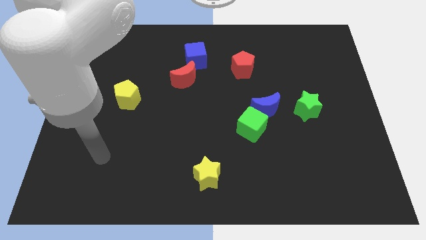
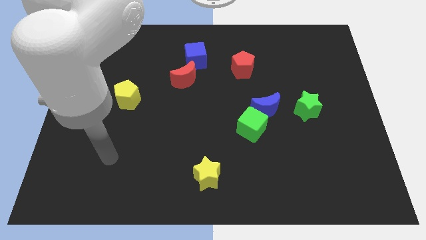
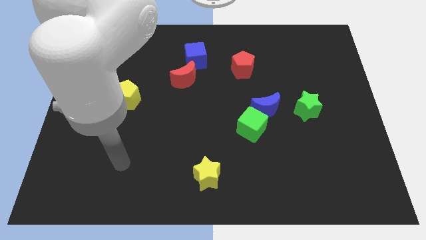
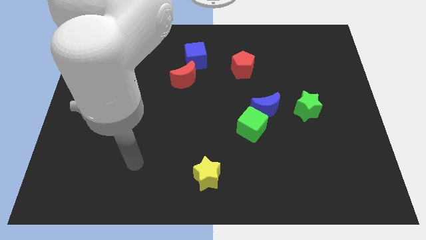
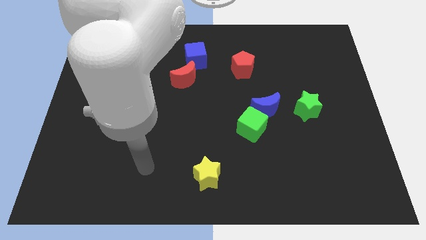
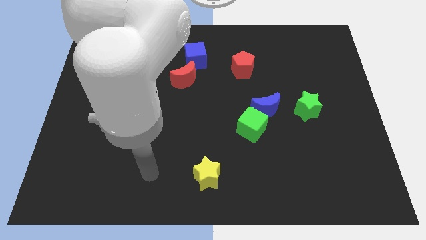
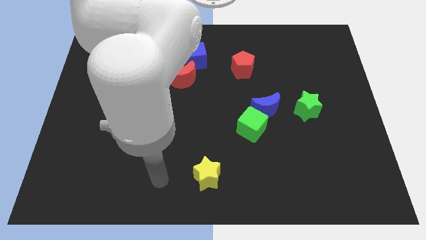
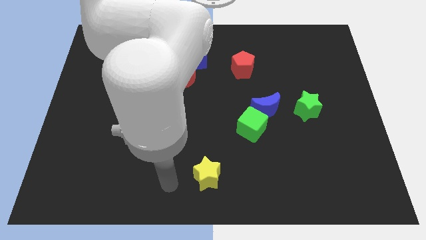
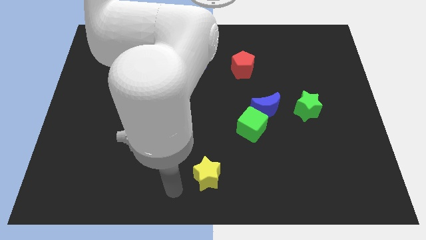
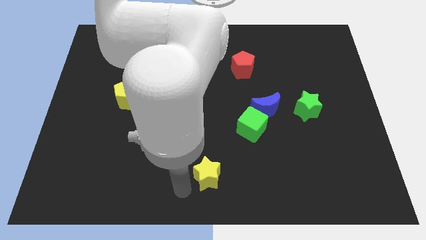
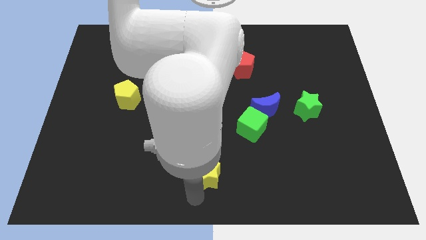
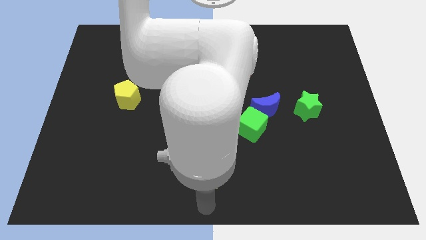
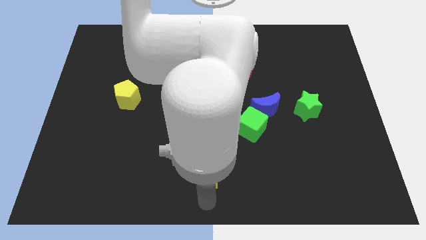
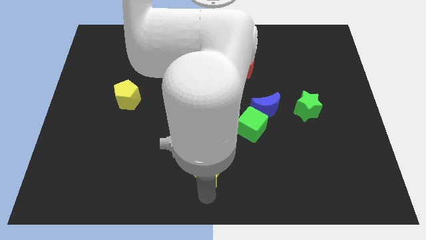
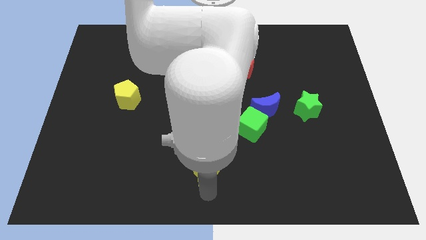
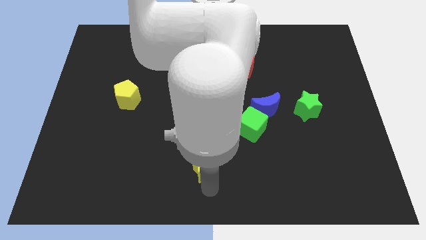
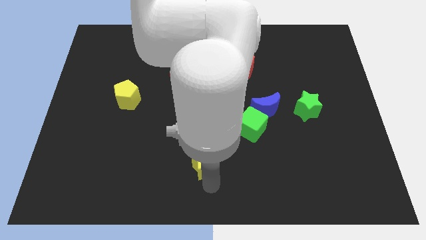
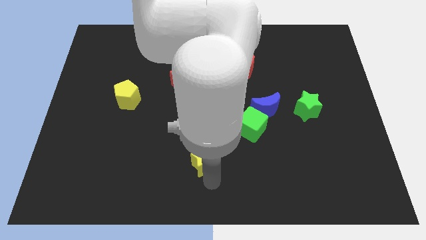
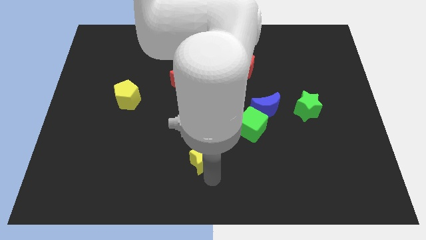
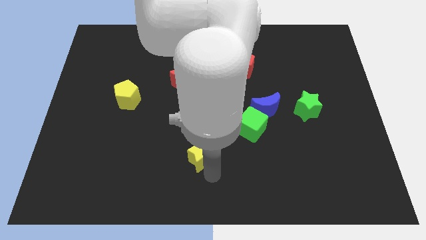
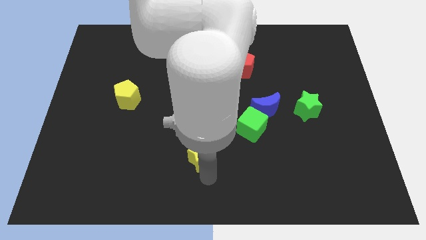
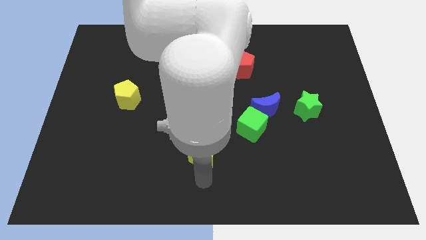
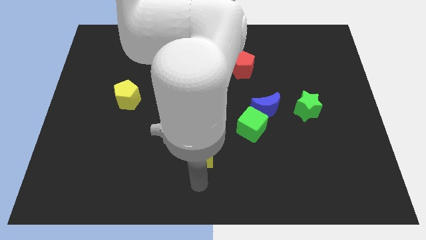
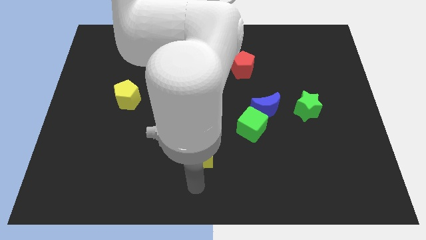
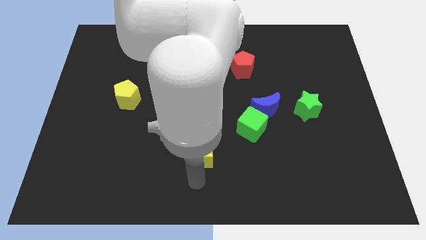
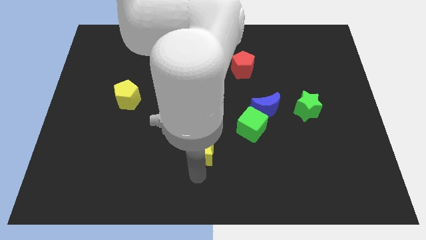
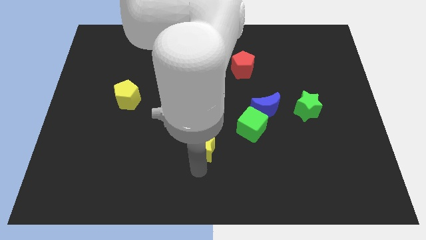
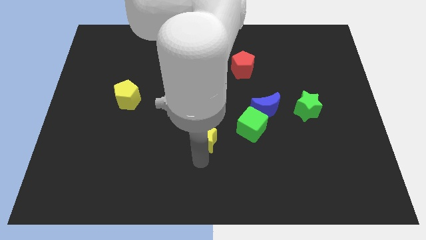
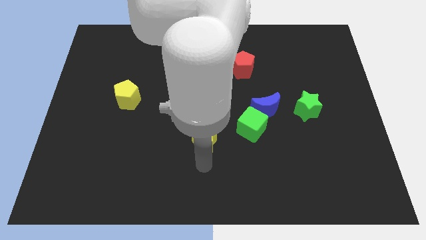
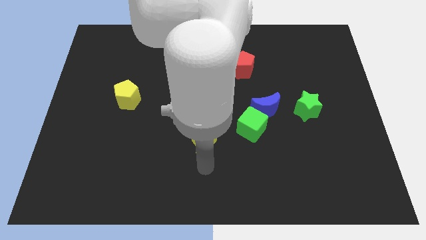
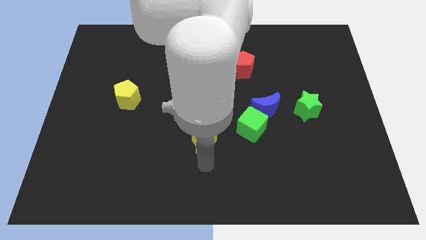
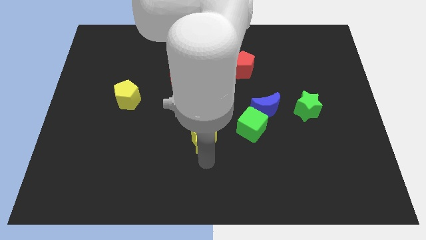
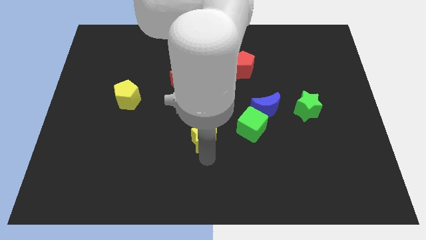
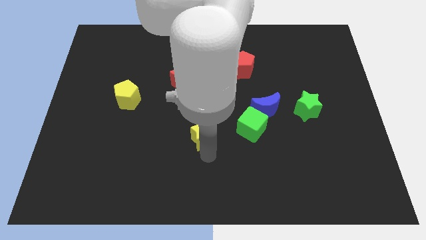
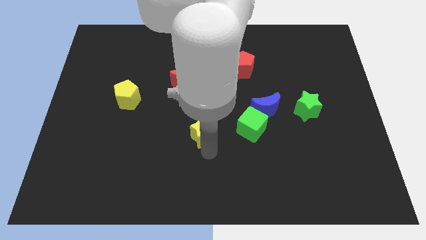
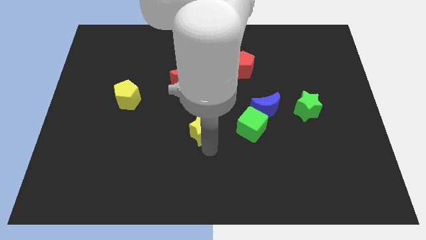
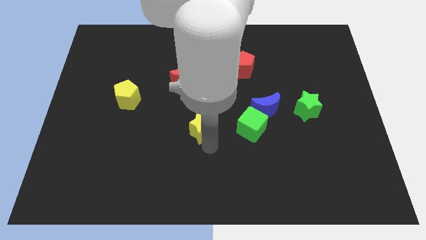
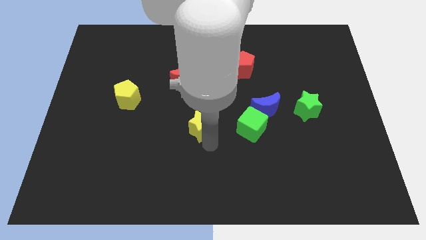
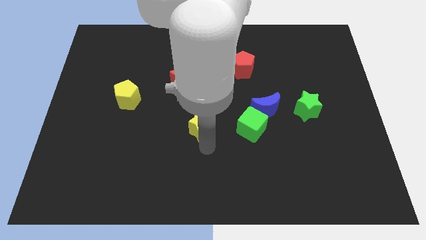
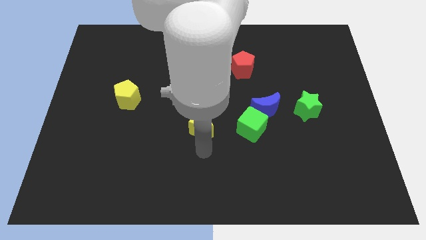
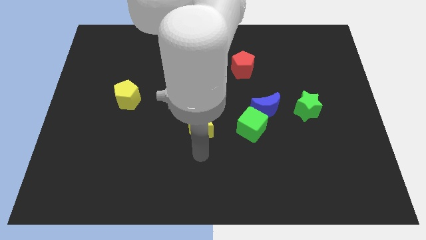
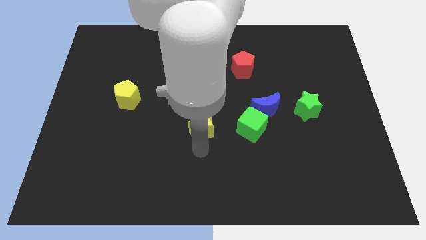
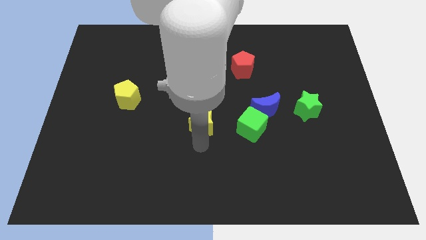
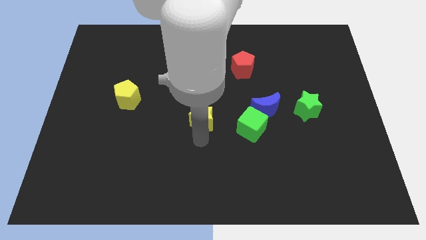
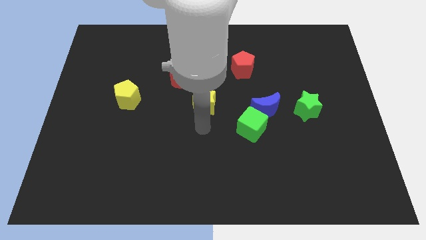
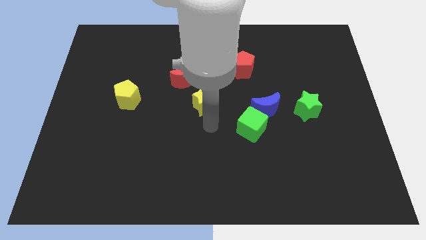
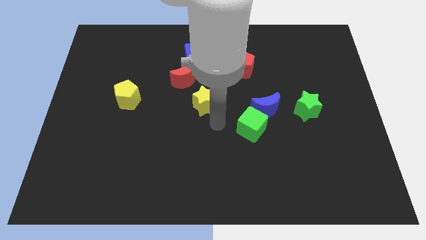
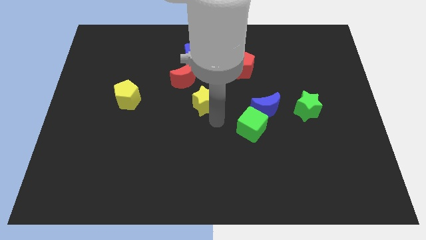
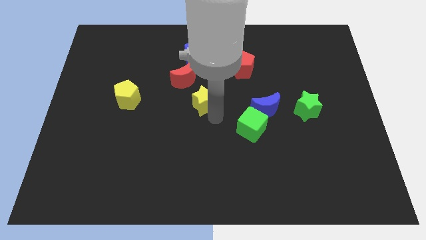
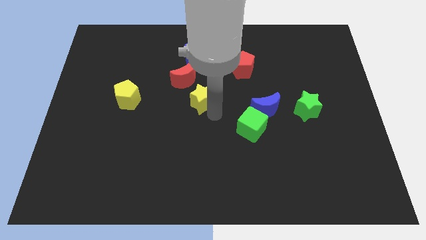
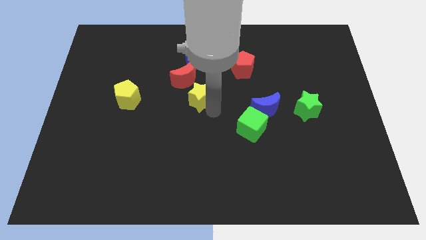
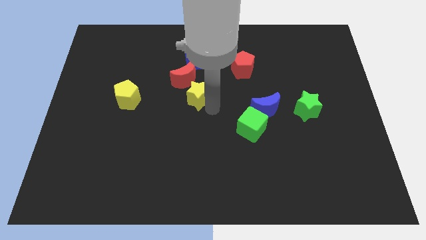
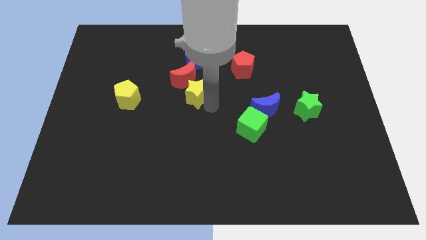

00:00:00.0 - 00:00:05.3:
move the yellow star to the red moon

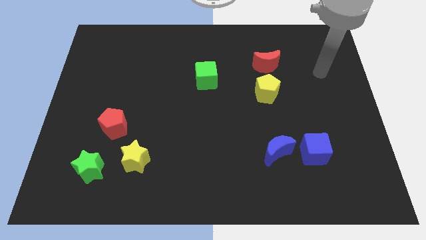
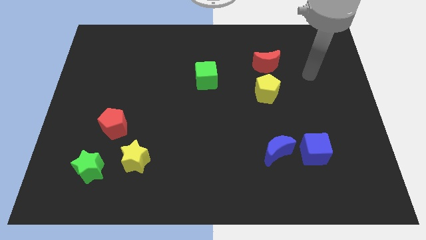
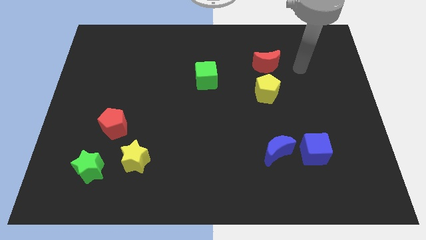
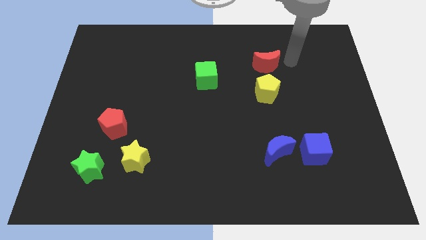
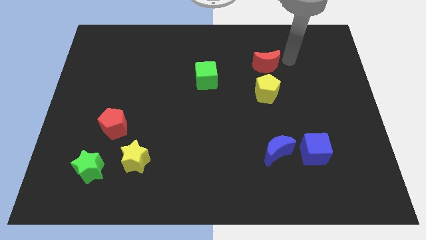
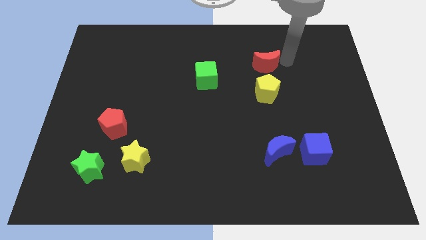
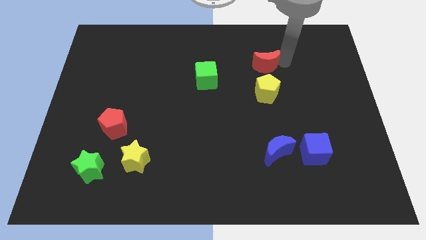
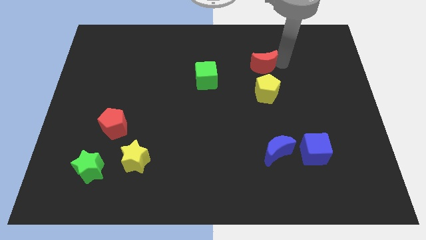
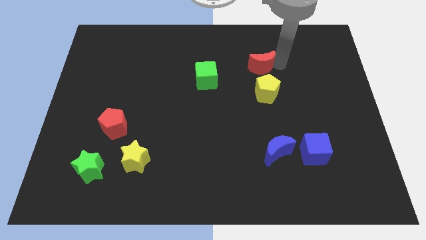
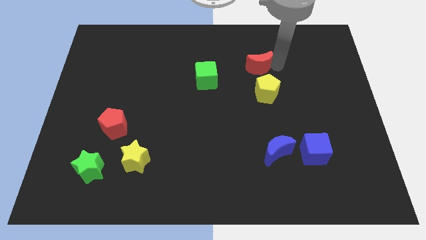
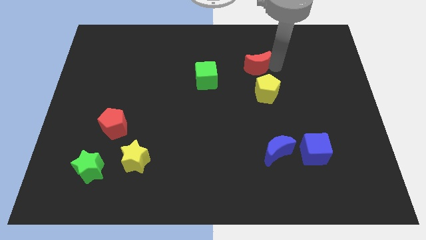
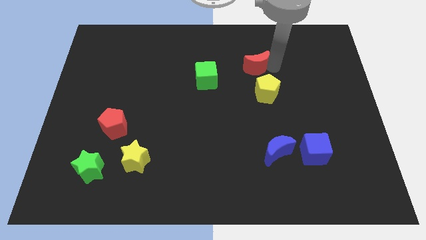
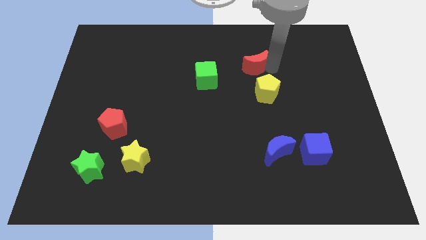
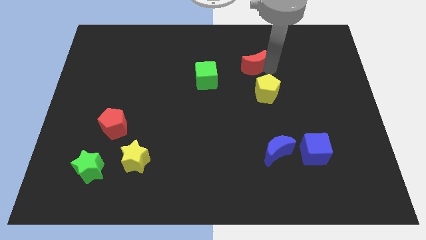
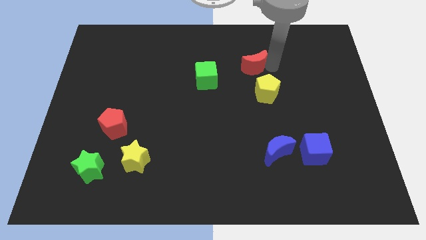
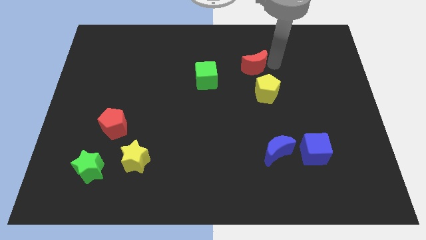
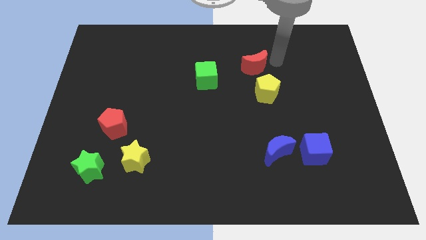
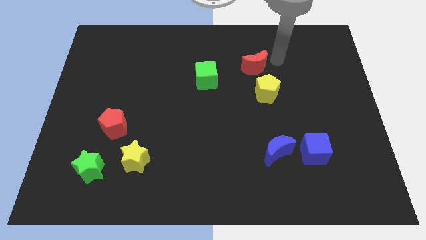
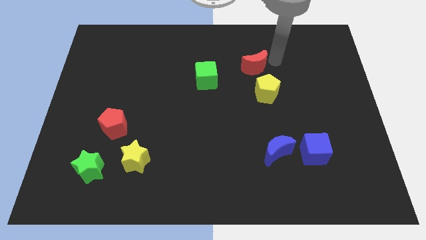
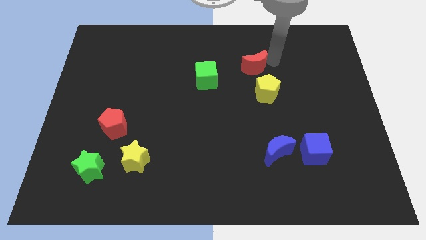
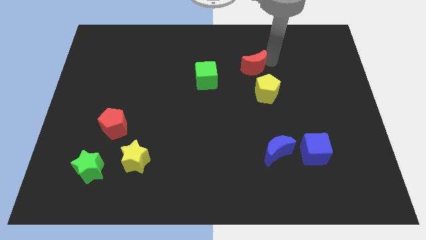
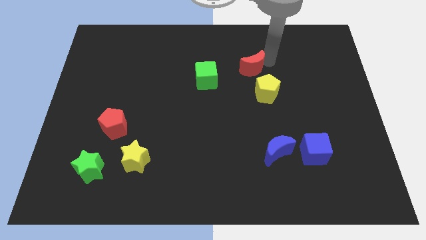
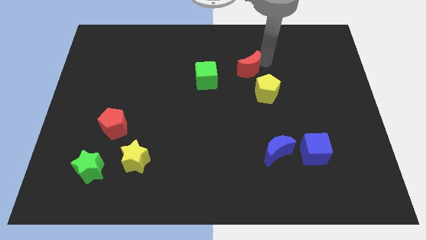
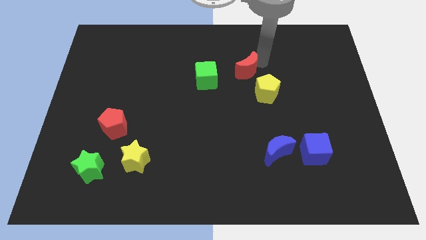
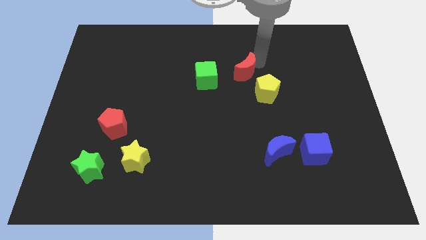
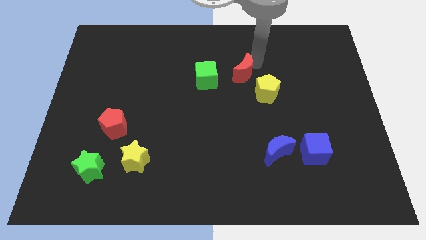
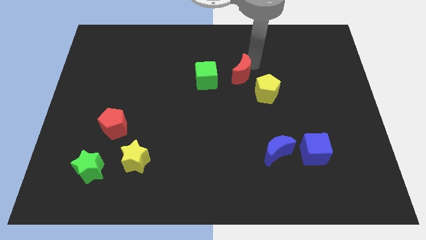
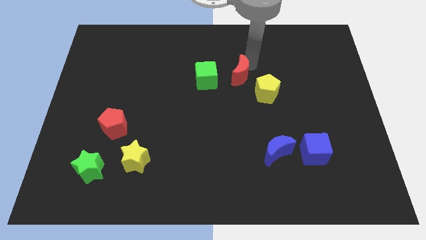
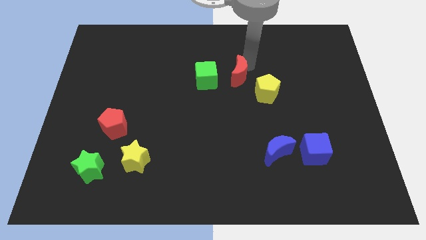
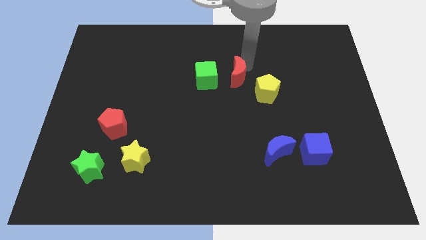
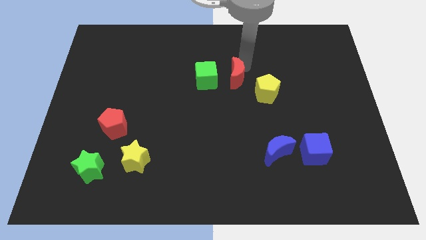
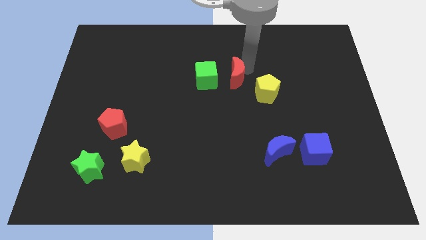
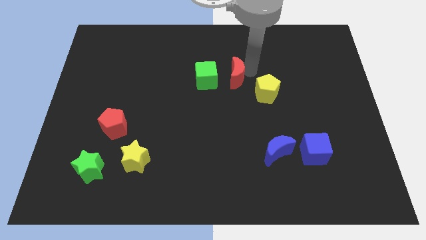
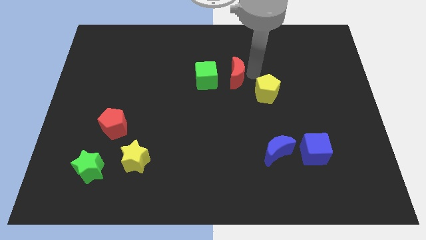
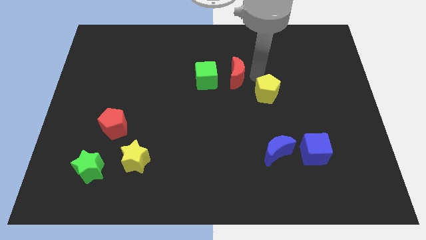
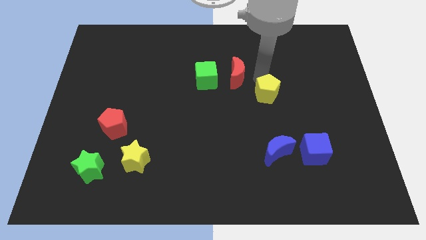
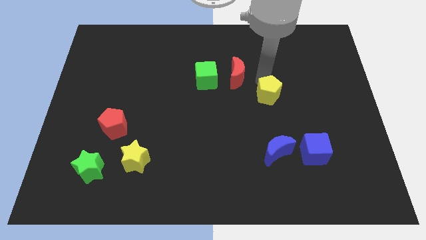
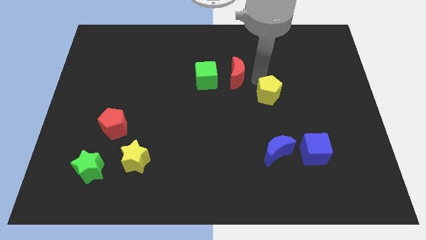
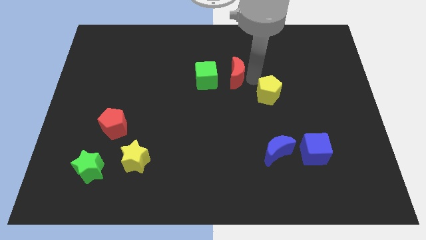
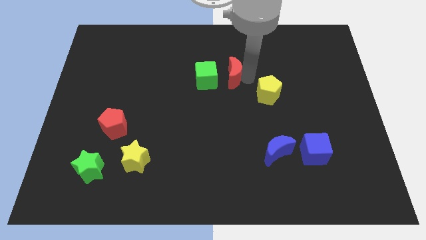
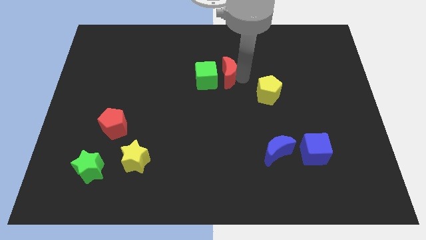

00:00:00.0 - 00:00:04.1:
push the red moon towards the green cube
